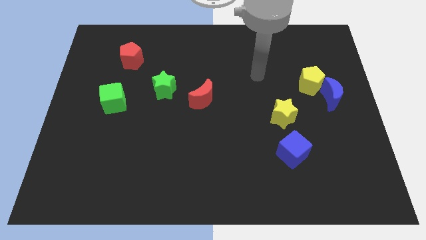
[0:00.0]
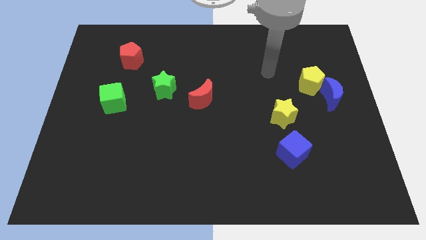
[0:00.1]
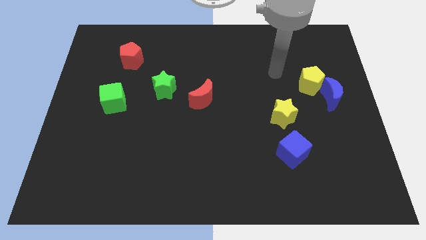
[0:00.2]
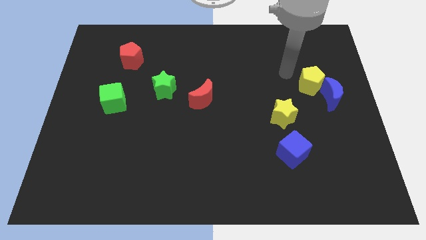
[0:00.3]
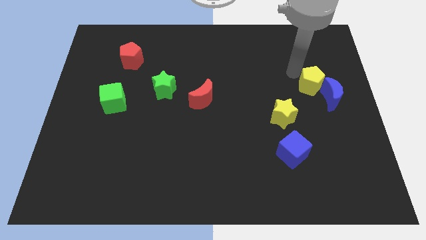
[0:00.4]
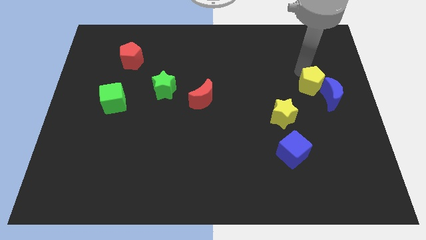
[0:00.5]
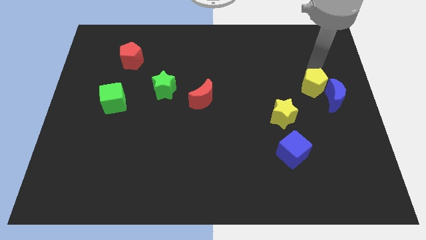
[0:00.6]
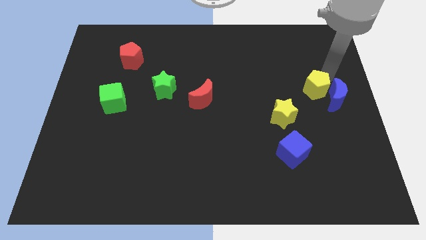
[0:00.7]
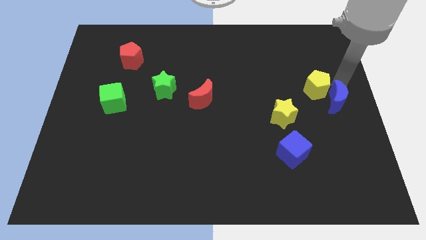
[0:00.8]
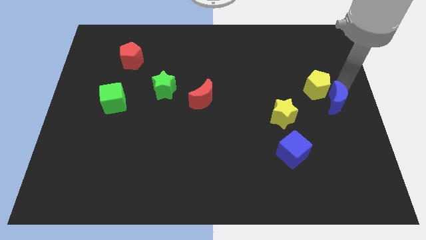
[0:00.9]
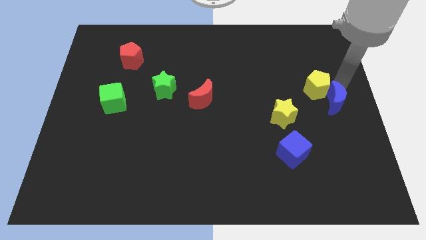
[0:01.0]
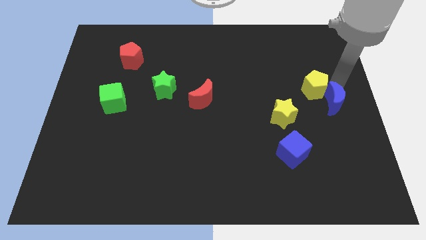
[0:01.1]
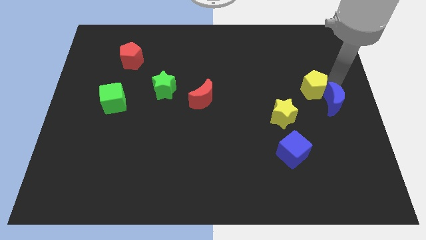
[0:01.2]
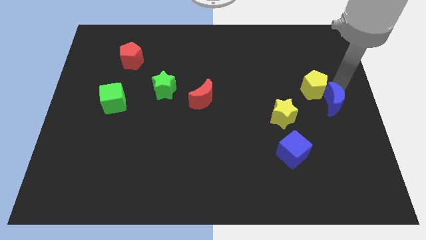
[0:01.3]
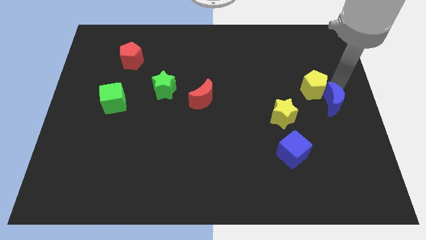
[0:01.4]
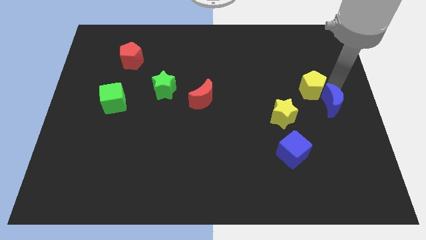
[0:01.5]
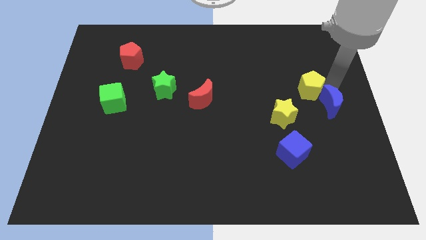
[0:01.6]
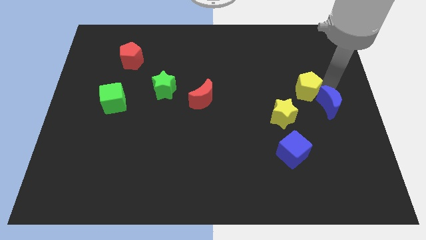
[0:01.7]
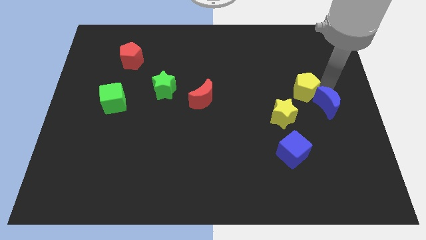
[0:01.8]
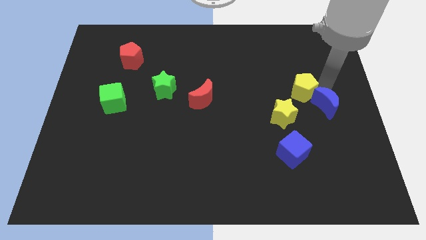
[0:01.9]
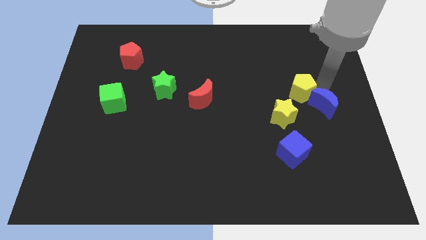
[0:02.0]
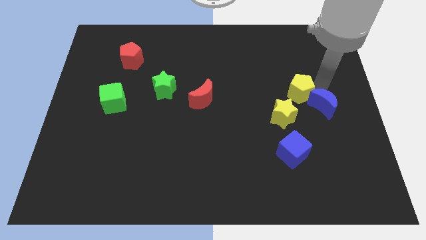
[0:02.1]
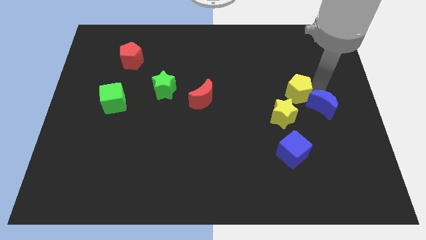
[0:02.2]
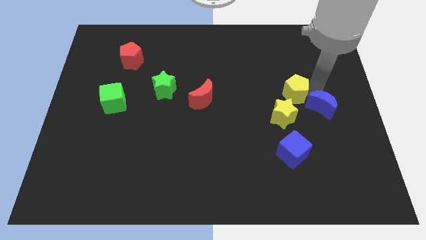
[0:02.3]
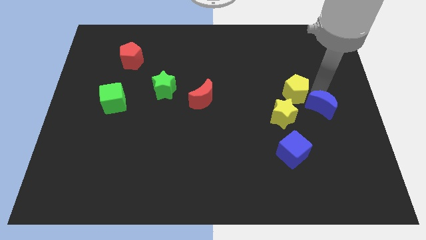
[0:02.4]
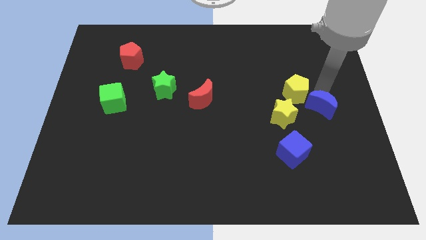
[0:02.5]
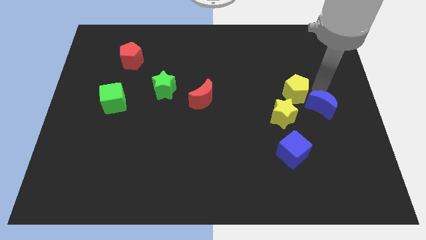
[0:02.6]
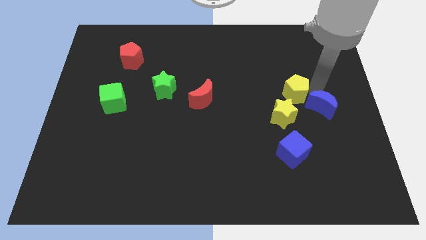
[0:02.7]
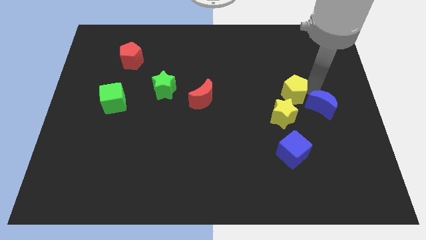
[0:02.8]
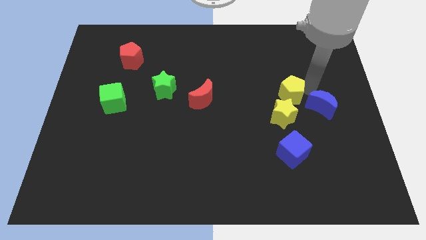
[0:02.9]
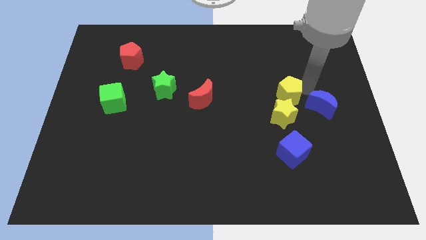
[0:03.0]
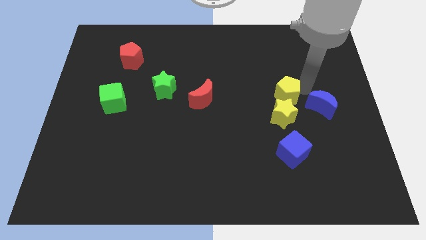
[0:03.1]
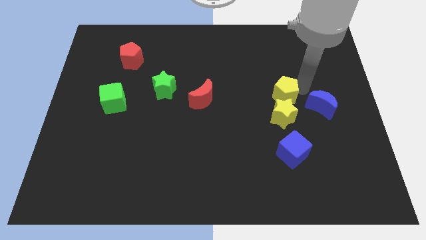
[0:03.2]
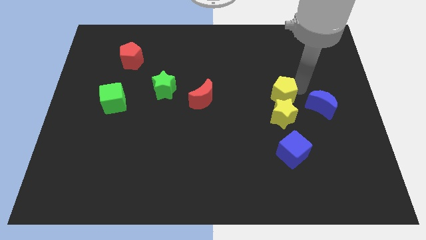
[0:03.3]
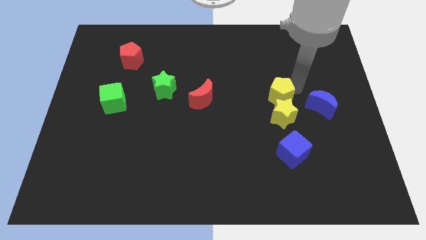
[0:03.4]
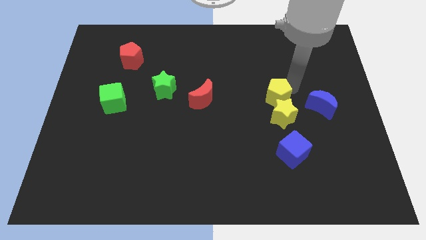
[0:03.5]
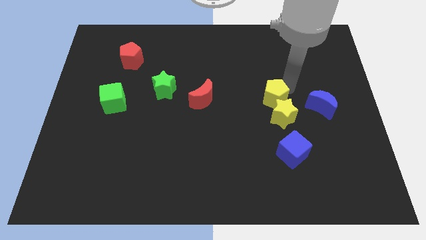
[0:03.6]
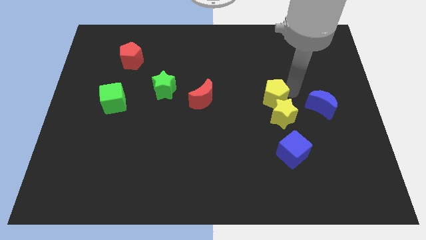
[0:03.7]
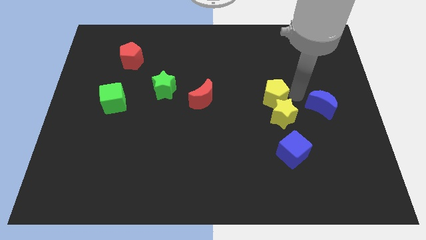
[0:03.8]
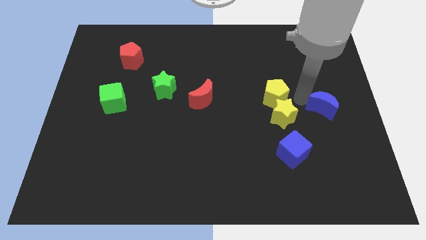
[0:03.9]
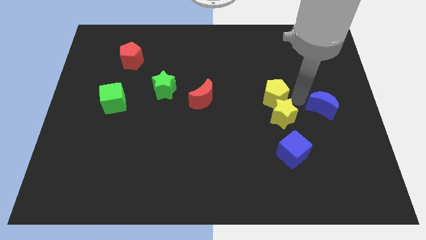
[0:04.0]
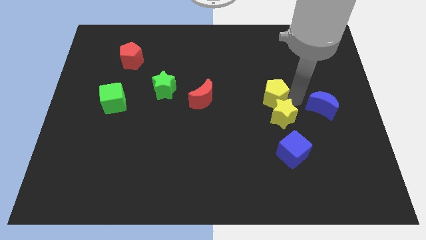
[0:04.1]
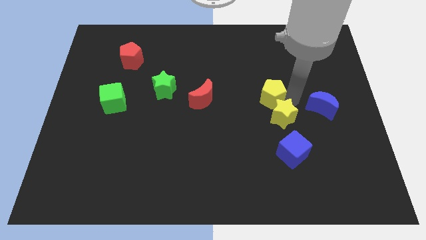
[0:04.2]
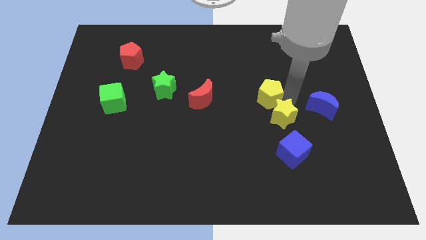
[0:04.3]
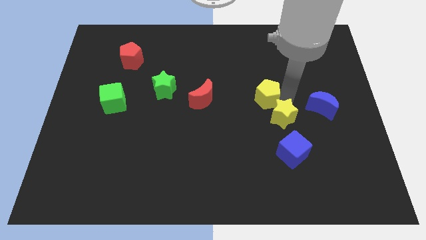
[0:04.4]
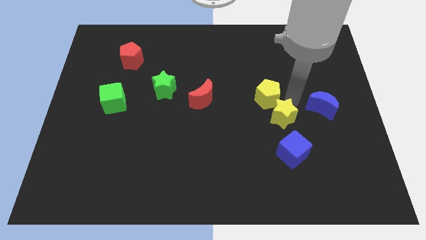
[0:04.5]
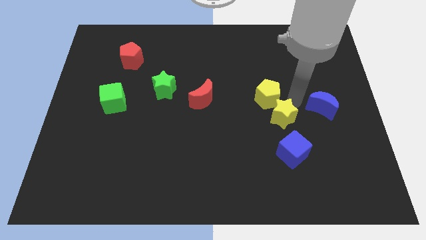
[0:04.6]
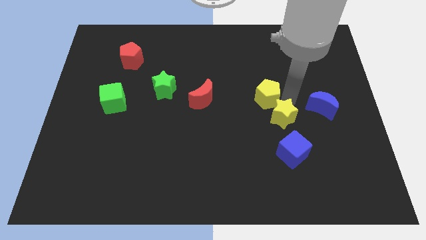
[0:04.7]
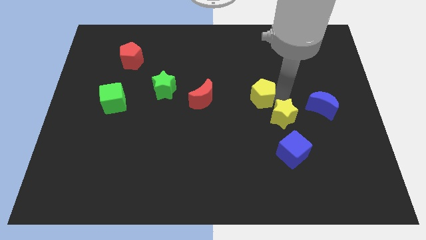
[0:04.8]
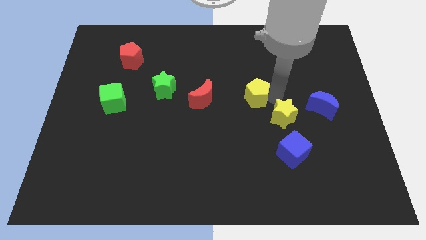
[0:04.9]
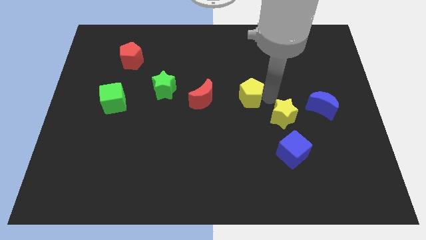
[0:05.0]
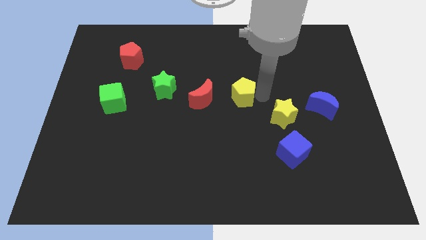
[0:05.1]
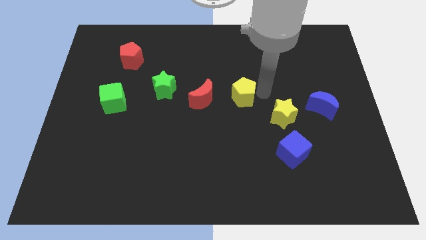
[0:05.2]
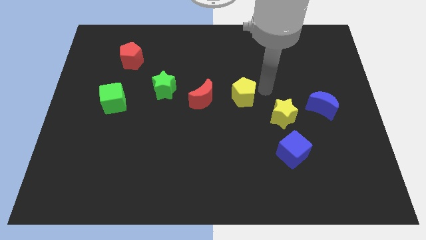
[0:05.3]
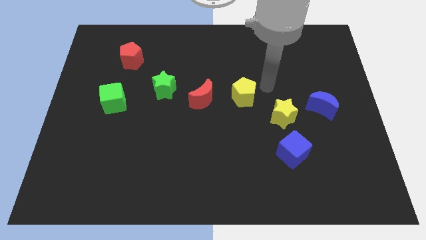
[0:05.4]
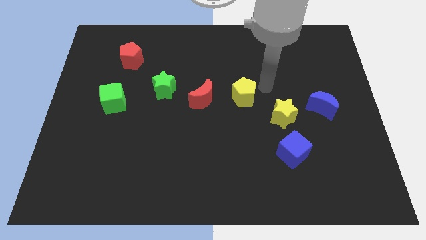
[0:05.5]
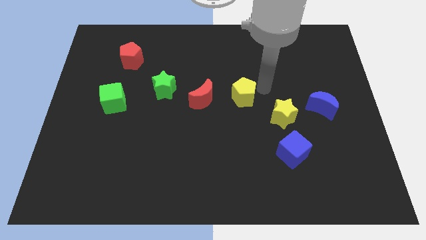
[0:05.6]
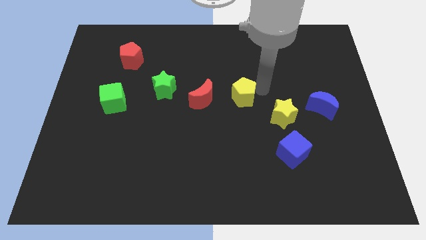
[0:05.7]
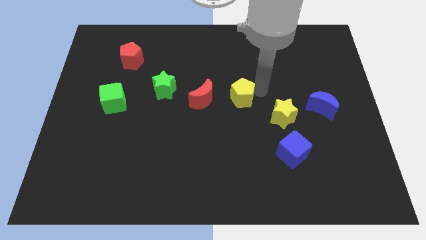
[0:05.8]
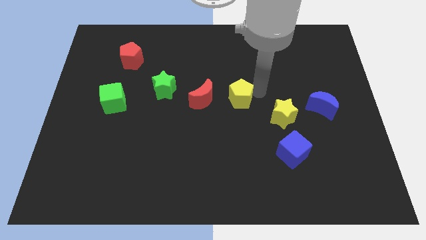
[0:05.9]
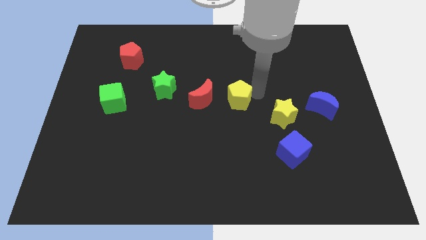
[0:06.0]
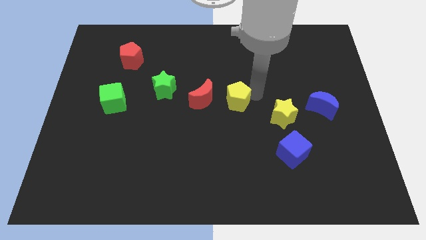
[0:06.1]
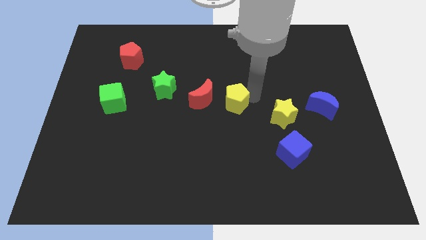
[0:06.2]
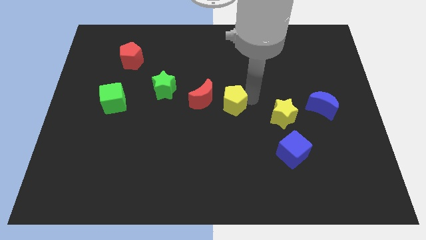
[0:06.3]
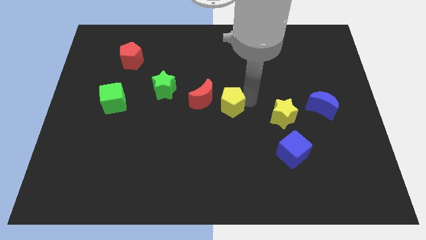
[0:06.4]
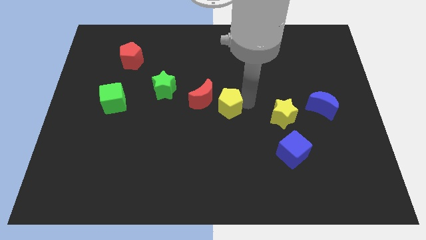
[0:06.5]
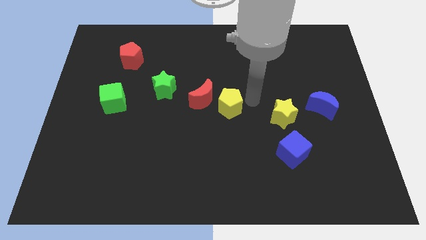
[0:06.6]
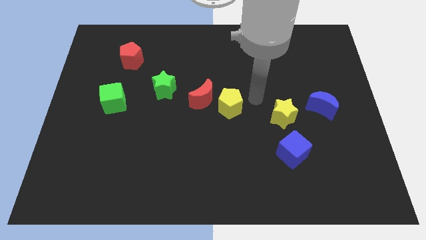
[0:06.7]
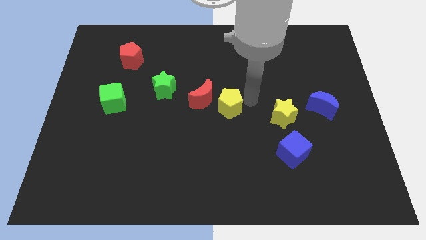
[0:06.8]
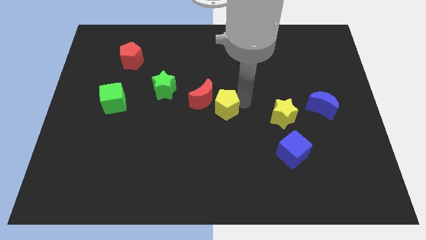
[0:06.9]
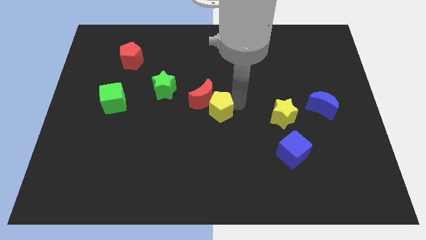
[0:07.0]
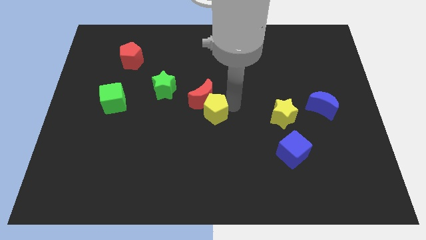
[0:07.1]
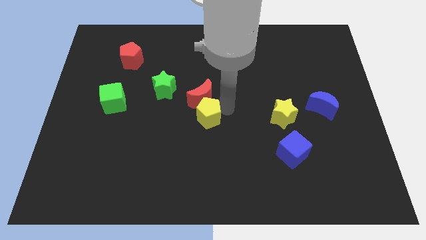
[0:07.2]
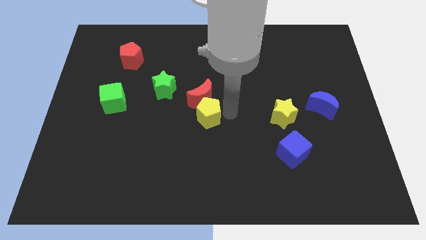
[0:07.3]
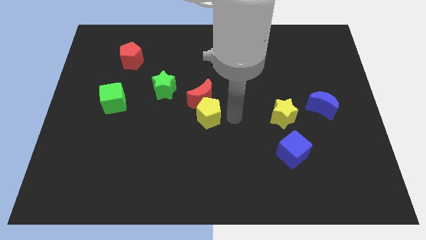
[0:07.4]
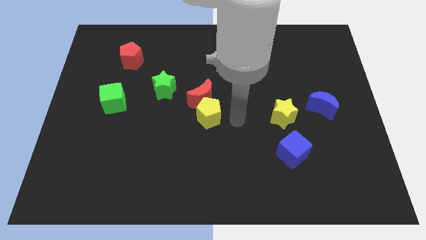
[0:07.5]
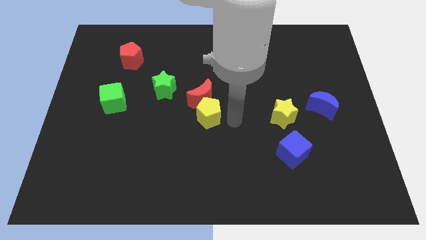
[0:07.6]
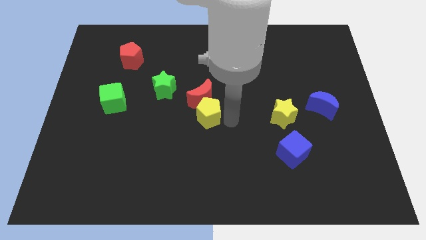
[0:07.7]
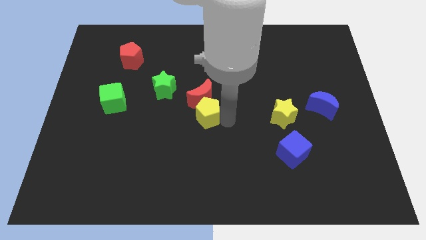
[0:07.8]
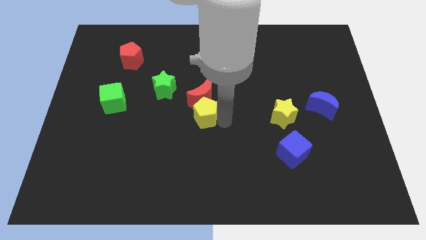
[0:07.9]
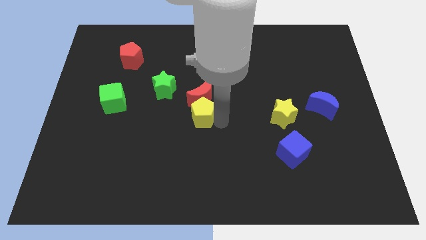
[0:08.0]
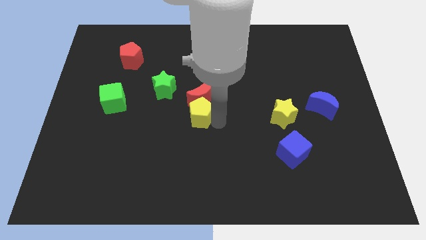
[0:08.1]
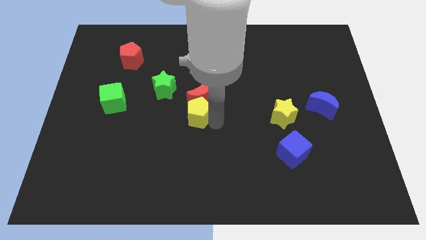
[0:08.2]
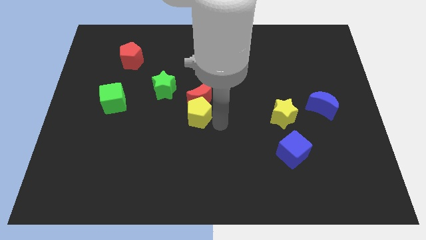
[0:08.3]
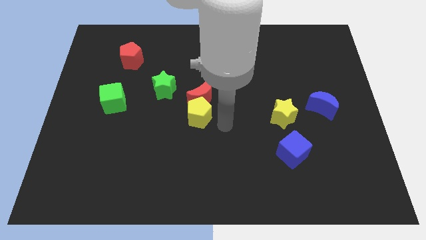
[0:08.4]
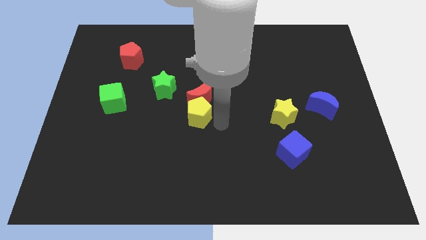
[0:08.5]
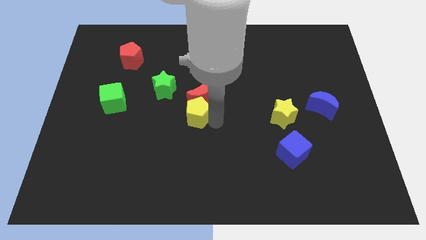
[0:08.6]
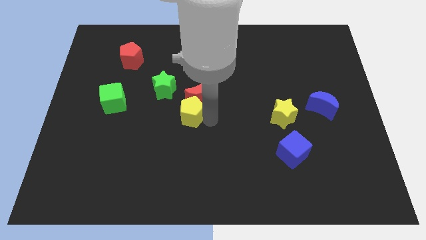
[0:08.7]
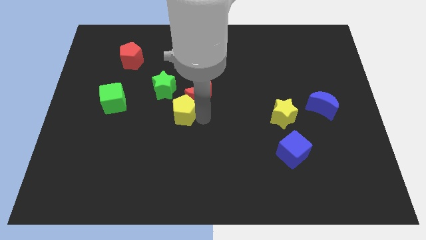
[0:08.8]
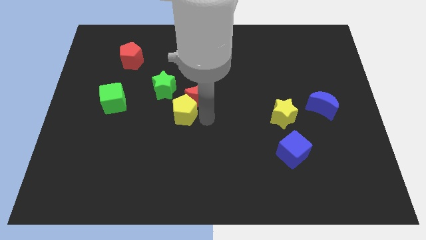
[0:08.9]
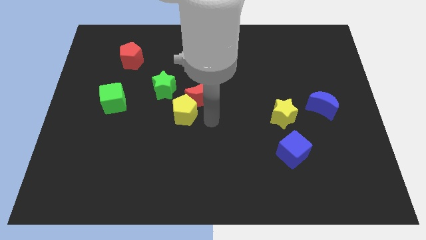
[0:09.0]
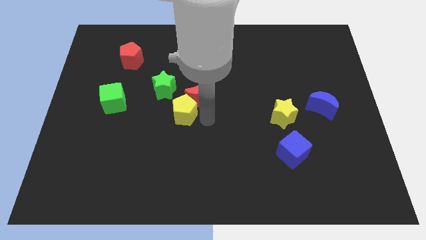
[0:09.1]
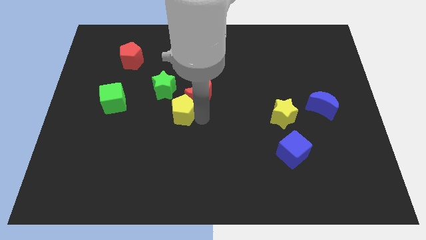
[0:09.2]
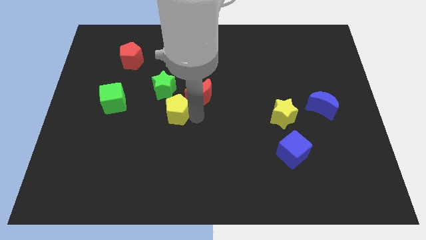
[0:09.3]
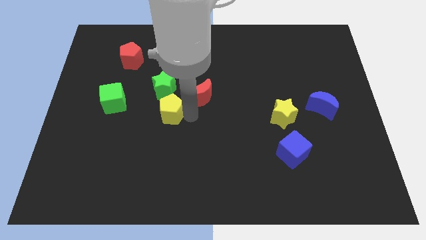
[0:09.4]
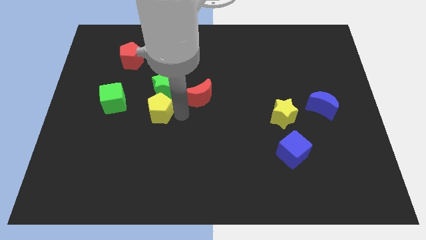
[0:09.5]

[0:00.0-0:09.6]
push the yellow pentagon to the bottom left side of the green star
